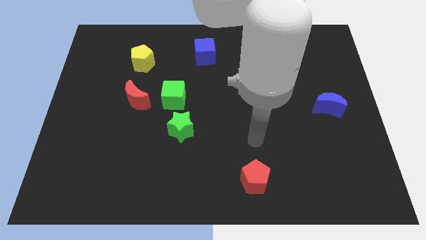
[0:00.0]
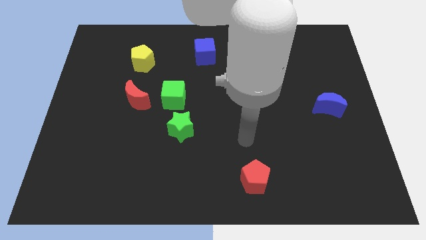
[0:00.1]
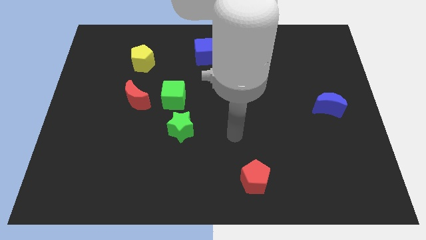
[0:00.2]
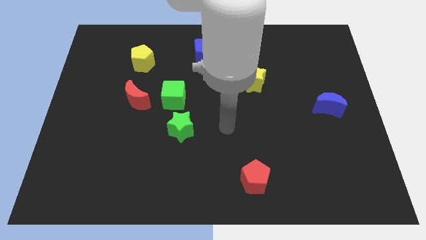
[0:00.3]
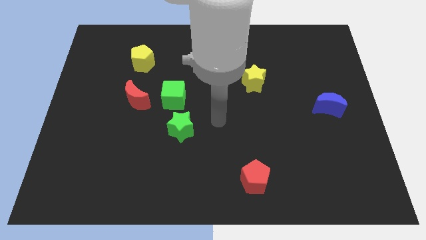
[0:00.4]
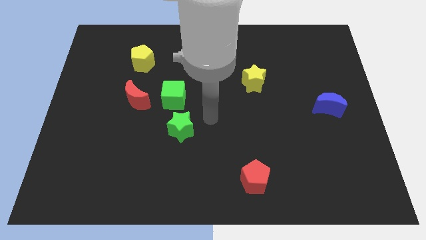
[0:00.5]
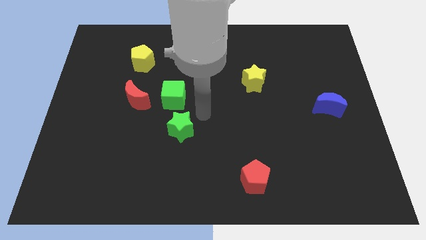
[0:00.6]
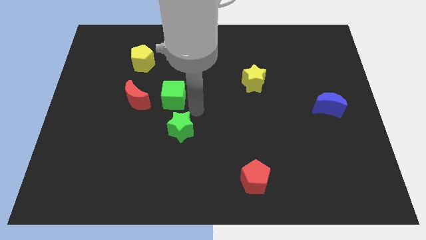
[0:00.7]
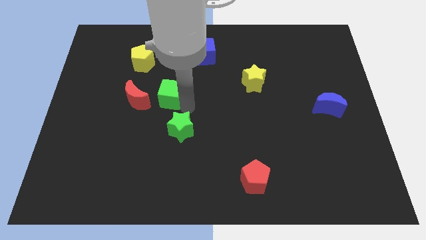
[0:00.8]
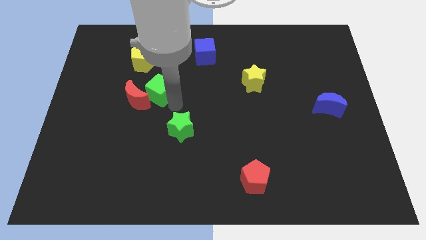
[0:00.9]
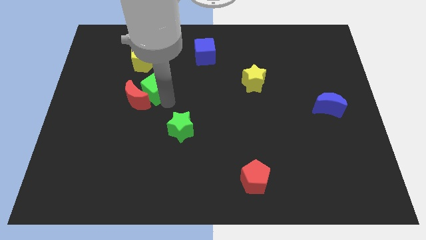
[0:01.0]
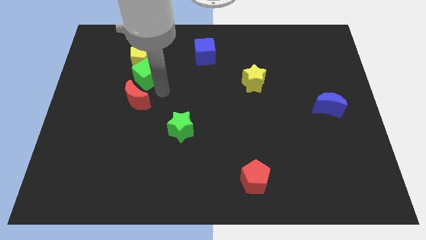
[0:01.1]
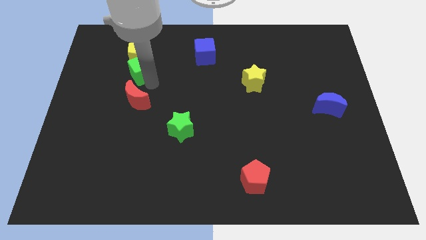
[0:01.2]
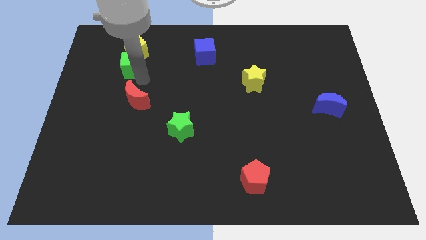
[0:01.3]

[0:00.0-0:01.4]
separate the red moon from the green cube

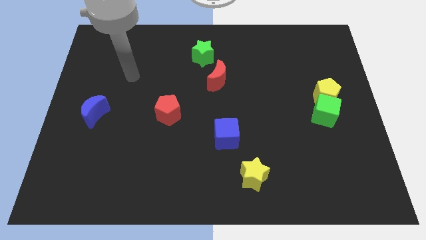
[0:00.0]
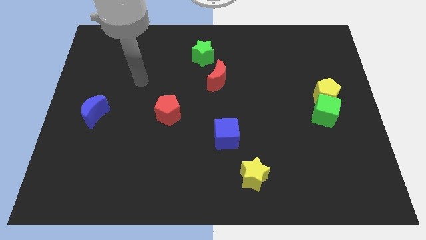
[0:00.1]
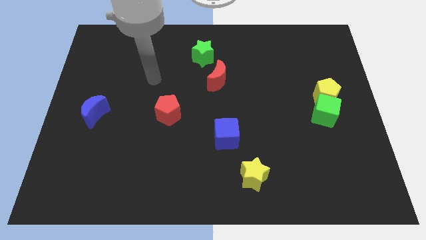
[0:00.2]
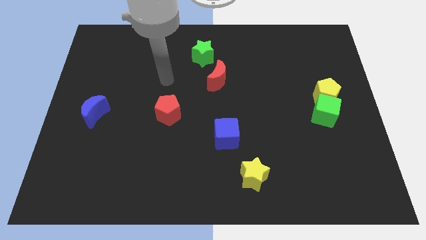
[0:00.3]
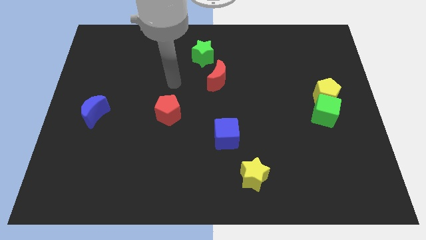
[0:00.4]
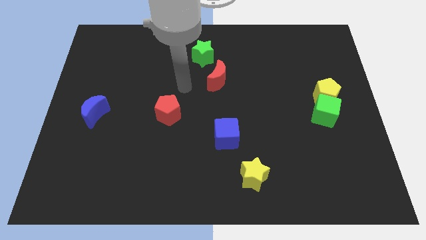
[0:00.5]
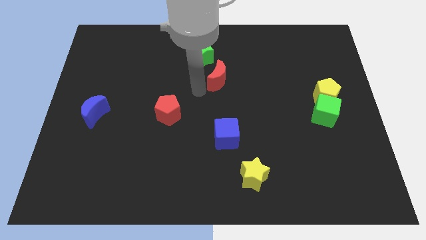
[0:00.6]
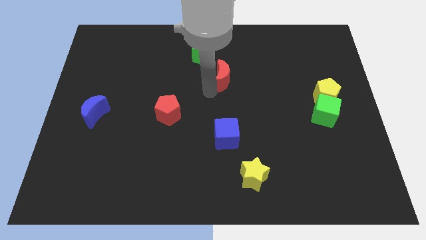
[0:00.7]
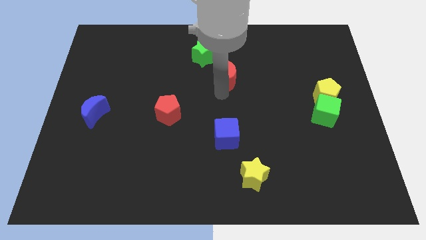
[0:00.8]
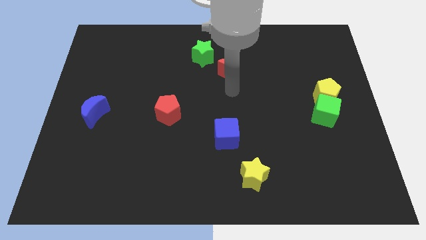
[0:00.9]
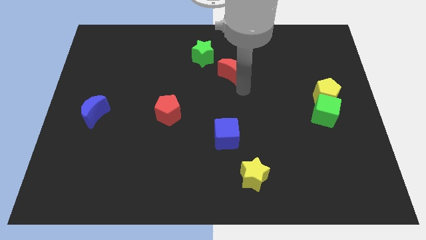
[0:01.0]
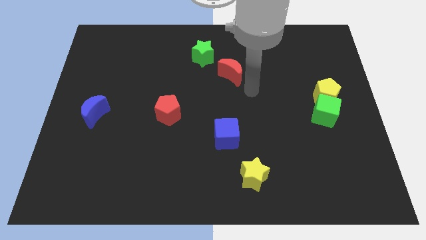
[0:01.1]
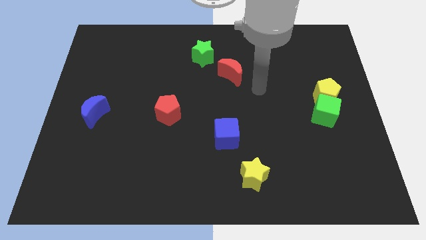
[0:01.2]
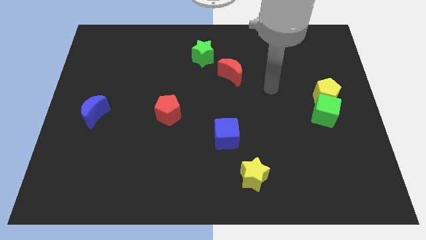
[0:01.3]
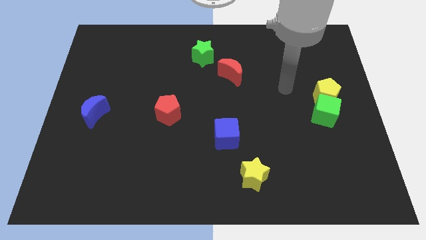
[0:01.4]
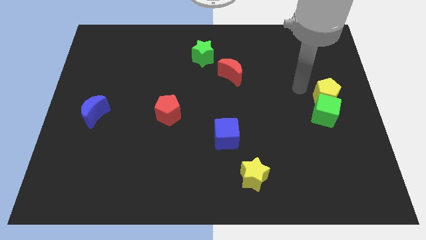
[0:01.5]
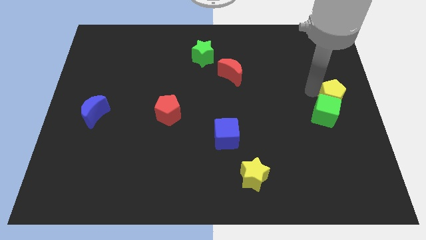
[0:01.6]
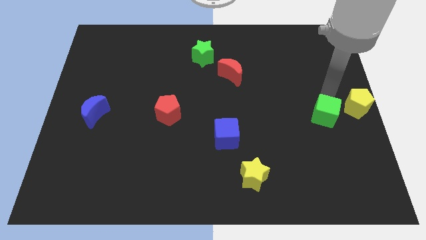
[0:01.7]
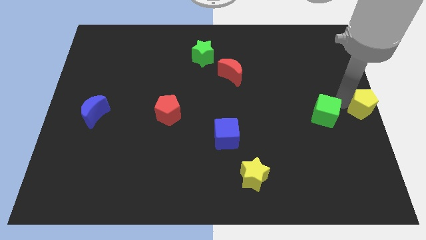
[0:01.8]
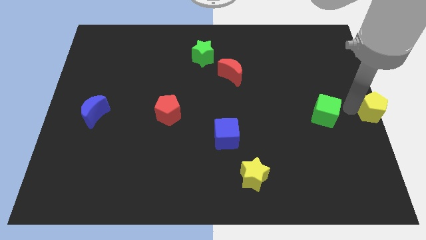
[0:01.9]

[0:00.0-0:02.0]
separate the green cube from the yellow pentagon

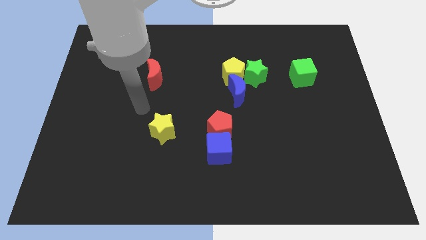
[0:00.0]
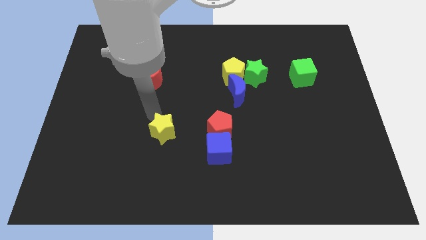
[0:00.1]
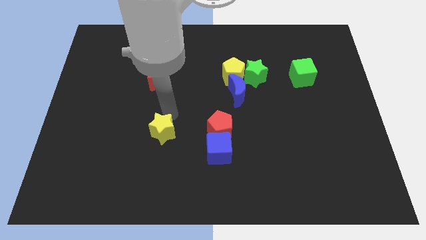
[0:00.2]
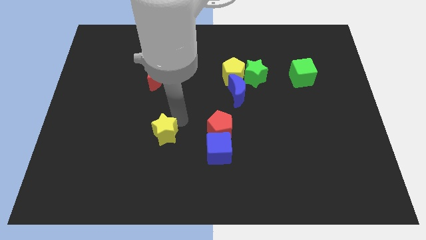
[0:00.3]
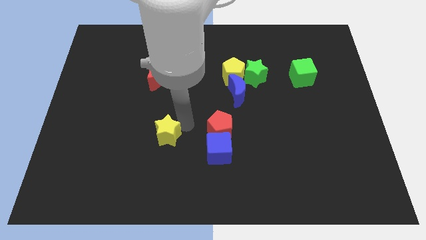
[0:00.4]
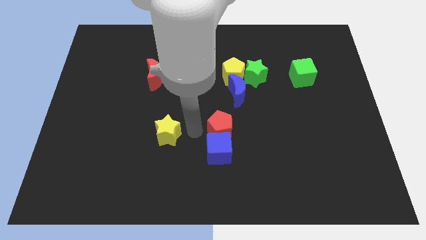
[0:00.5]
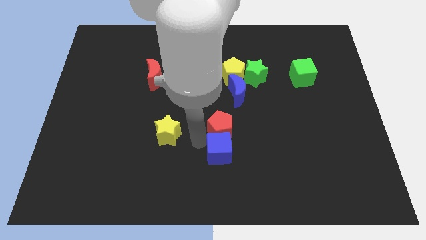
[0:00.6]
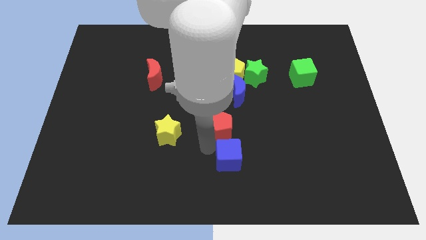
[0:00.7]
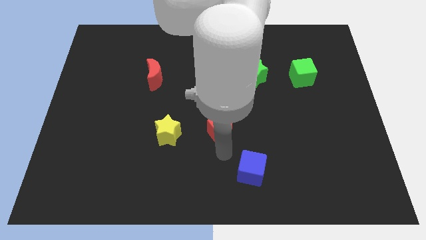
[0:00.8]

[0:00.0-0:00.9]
pull the red pentagon apart from the blue cube

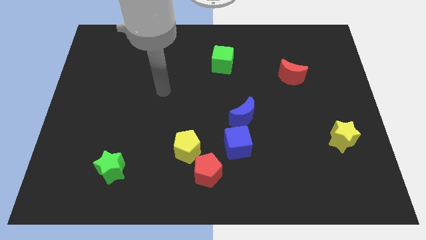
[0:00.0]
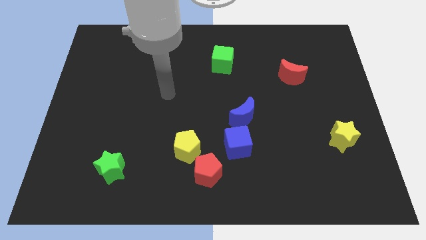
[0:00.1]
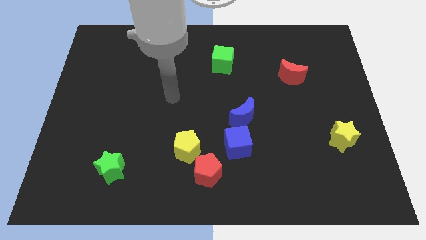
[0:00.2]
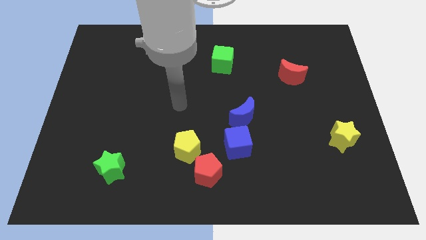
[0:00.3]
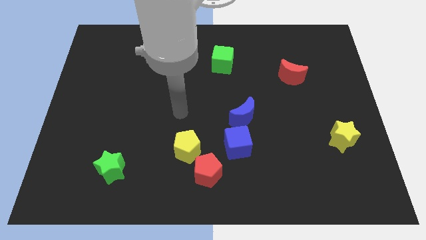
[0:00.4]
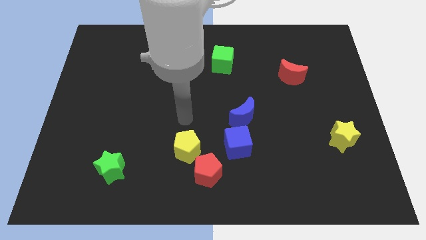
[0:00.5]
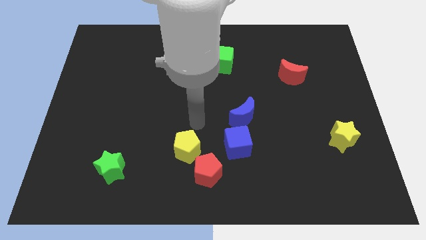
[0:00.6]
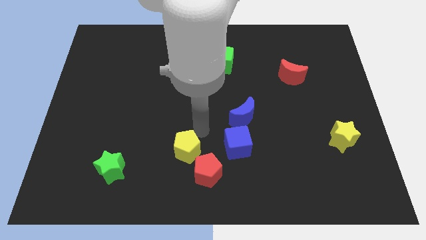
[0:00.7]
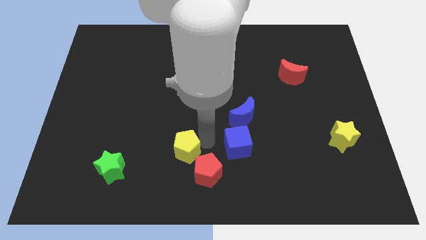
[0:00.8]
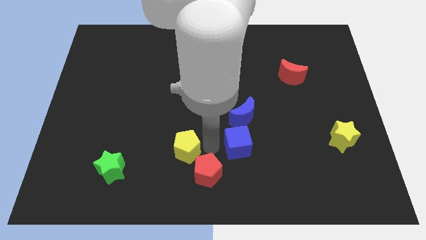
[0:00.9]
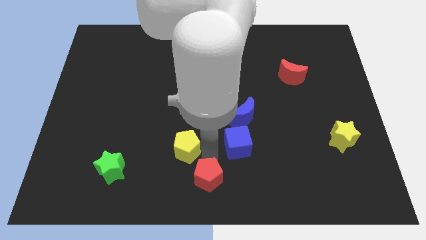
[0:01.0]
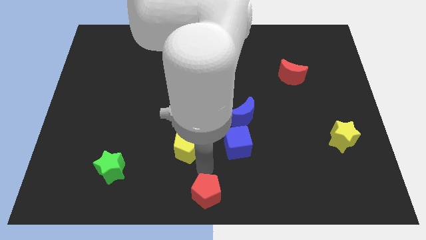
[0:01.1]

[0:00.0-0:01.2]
pull the yellow pentagon apart from the red pentagon

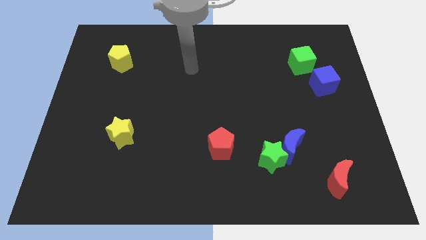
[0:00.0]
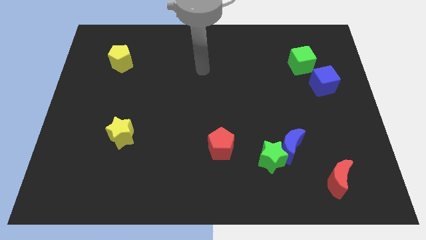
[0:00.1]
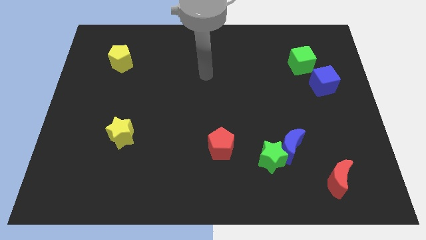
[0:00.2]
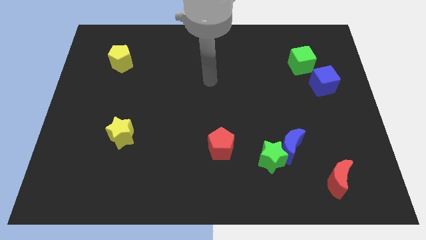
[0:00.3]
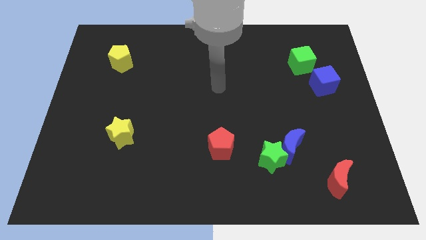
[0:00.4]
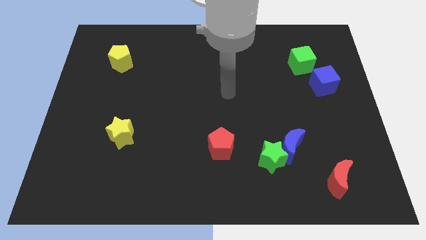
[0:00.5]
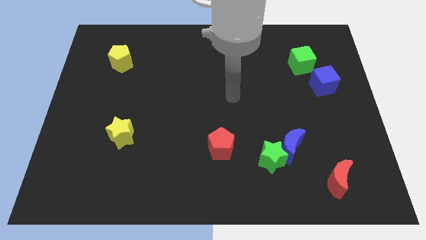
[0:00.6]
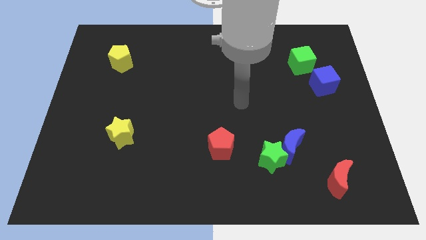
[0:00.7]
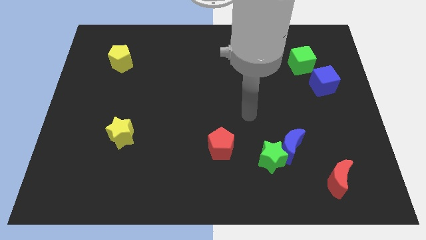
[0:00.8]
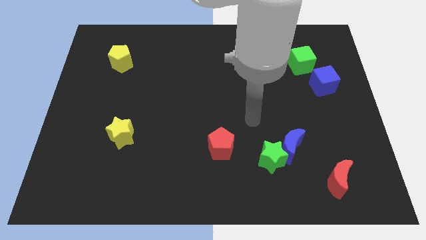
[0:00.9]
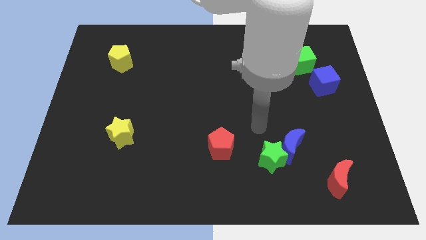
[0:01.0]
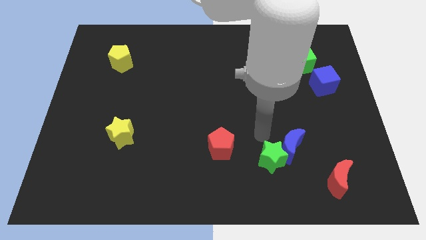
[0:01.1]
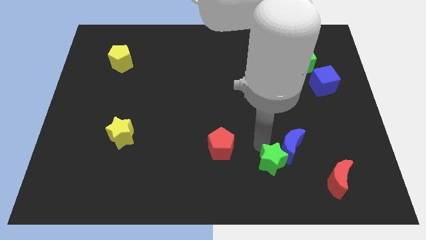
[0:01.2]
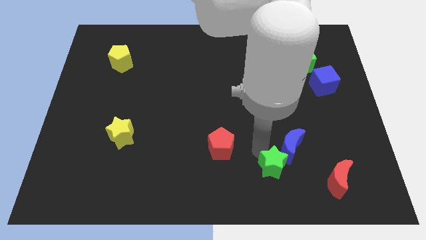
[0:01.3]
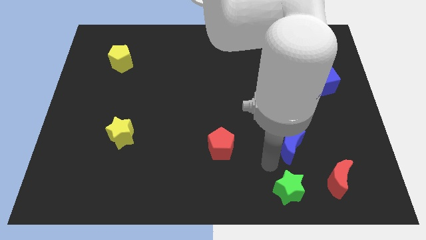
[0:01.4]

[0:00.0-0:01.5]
pull the blue moon apart from the green star

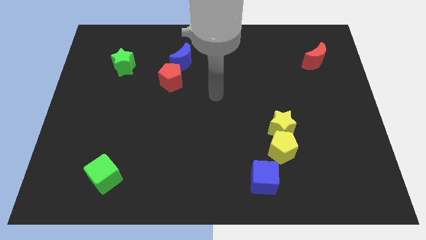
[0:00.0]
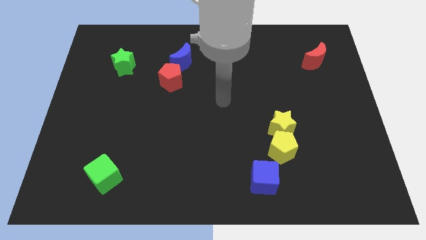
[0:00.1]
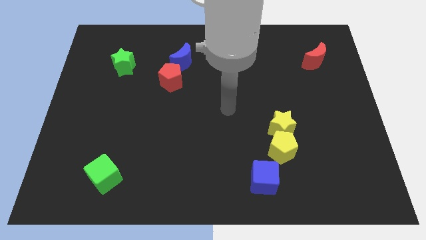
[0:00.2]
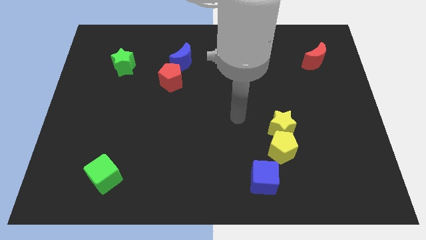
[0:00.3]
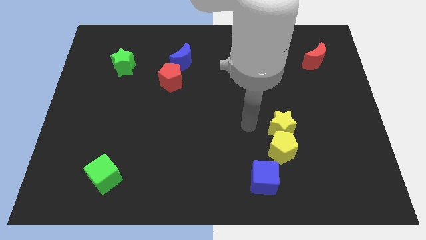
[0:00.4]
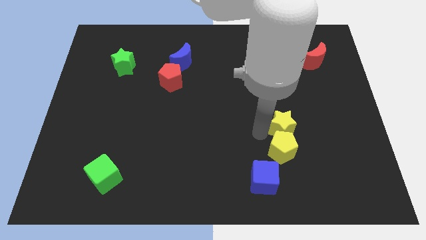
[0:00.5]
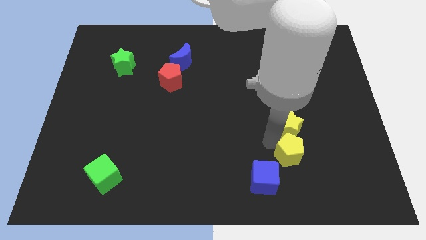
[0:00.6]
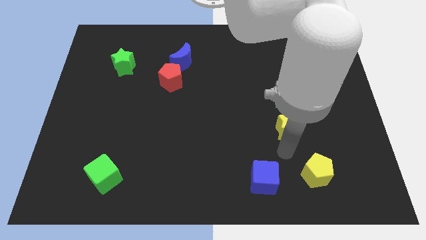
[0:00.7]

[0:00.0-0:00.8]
pull the yellow star apart from the yellow pentagon

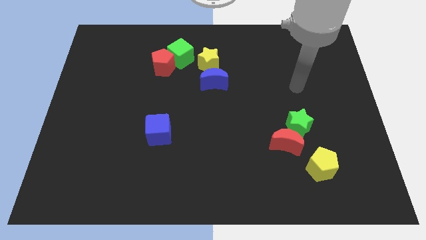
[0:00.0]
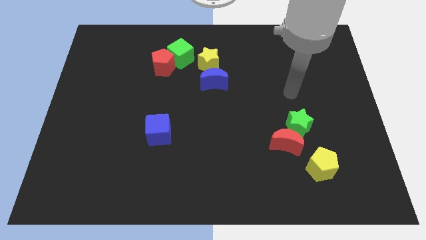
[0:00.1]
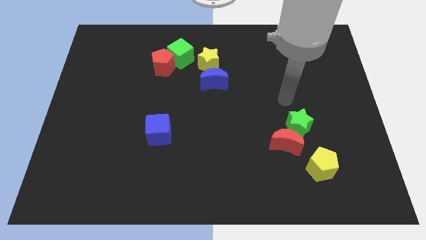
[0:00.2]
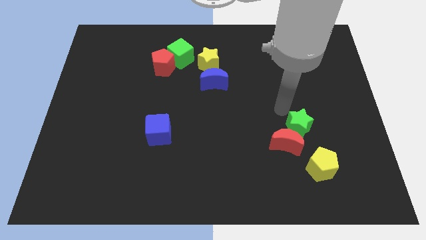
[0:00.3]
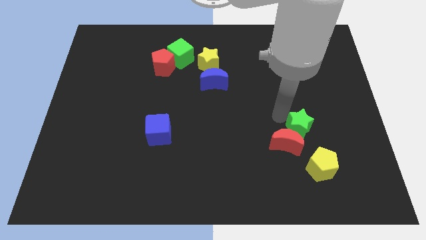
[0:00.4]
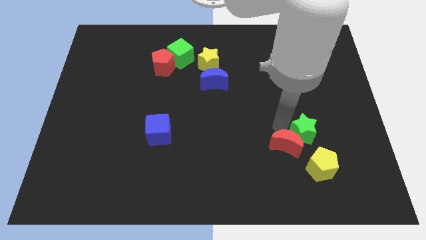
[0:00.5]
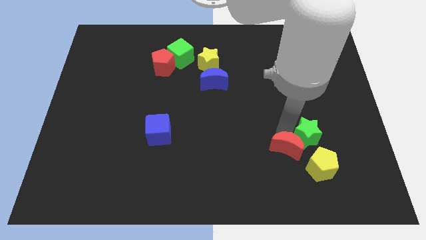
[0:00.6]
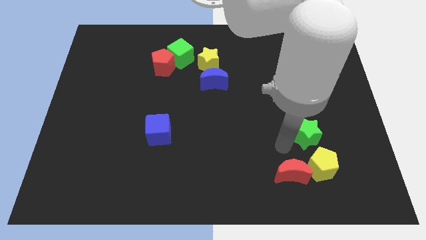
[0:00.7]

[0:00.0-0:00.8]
separate the green star from the red moon

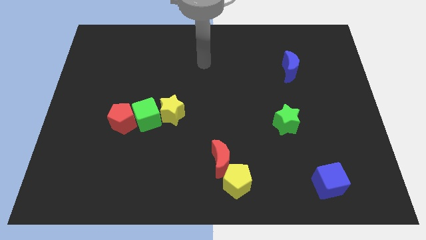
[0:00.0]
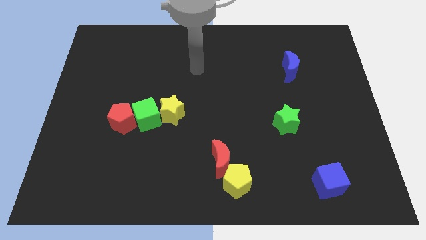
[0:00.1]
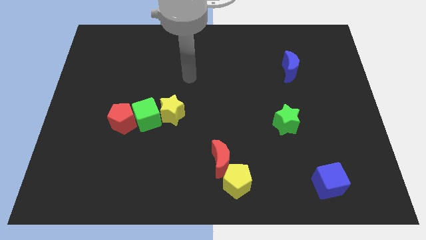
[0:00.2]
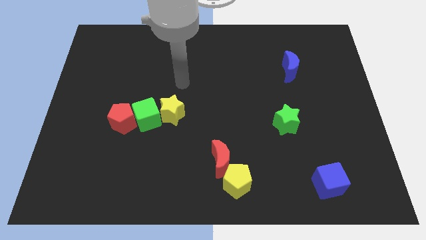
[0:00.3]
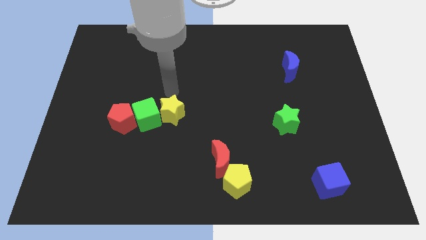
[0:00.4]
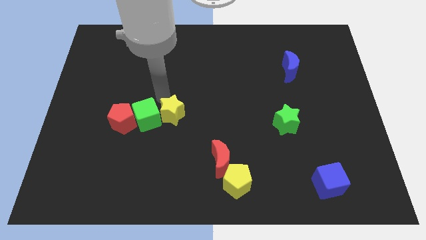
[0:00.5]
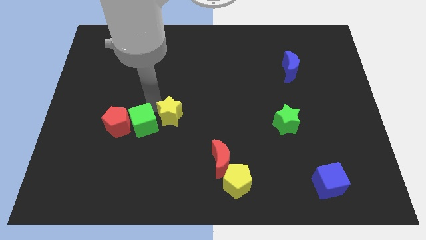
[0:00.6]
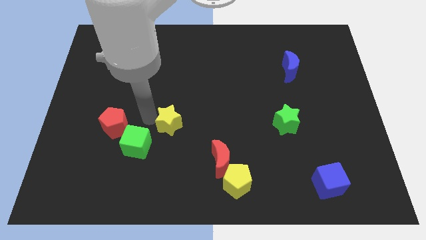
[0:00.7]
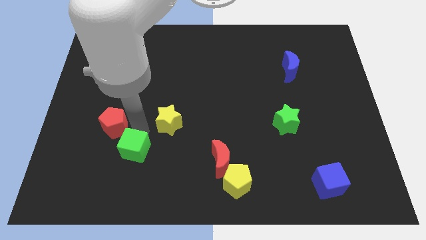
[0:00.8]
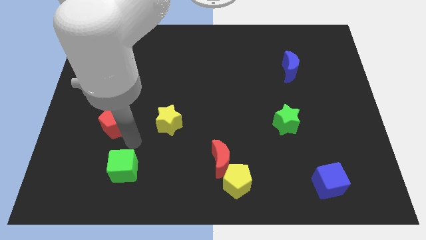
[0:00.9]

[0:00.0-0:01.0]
separate the red pentagon from the green cube
